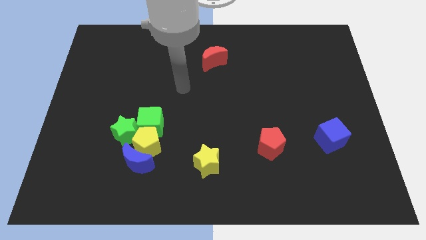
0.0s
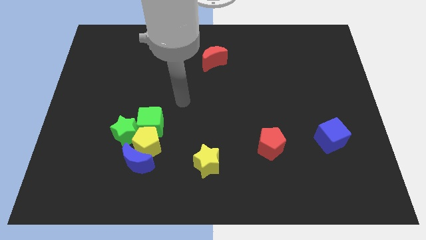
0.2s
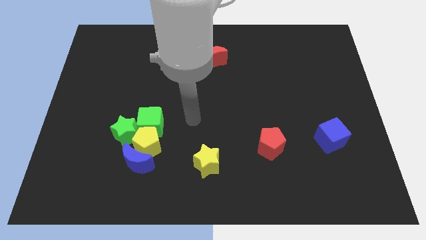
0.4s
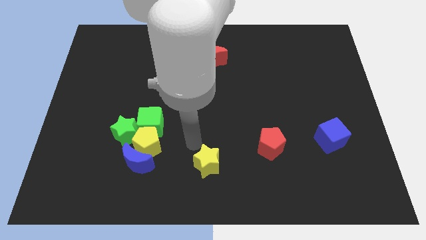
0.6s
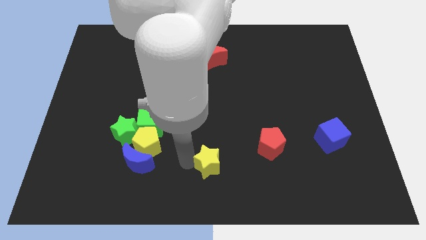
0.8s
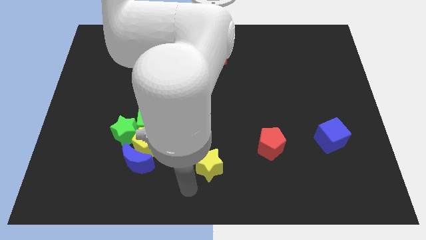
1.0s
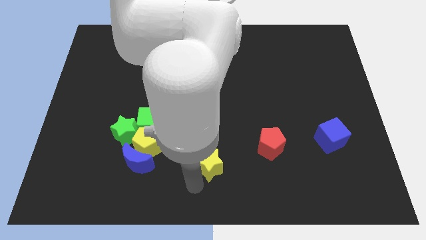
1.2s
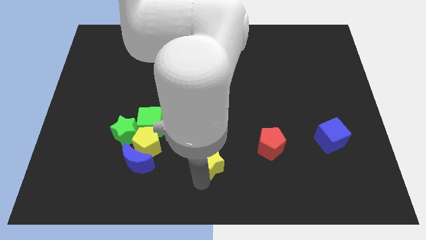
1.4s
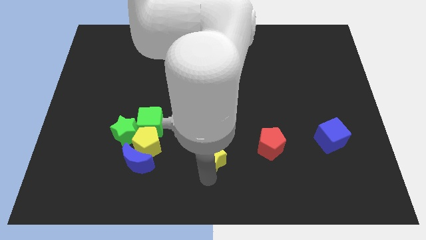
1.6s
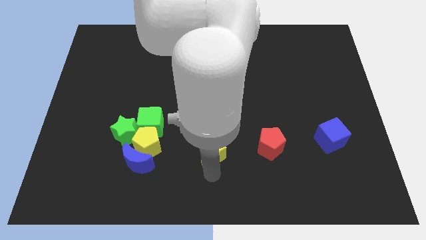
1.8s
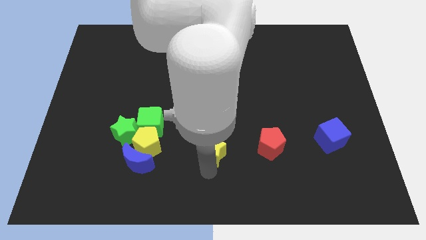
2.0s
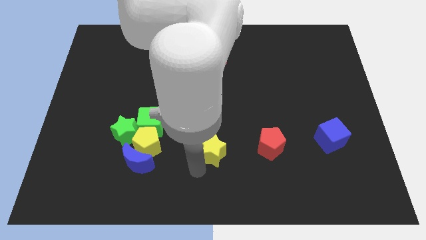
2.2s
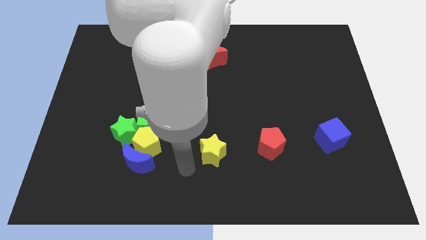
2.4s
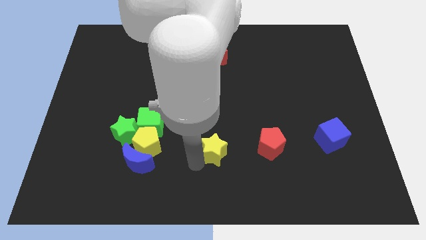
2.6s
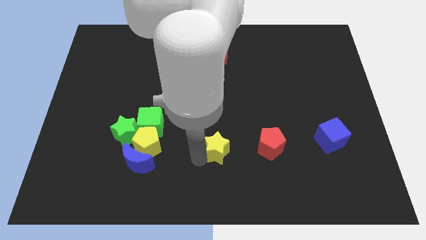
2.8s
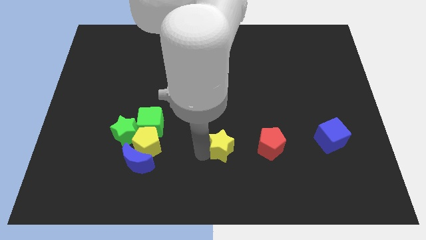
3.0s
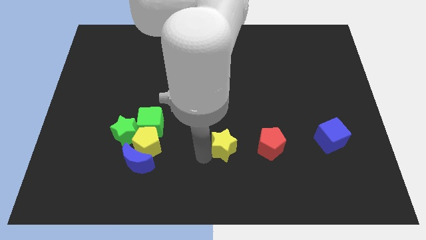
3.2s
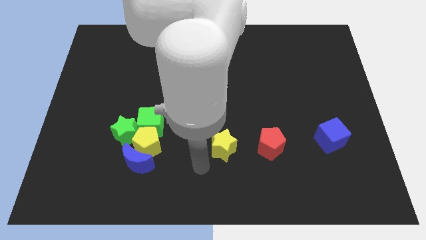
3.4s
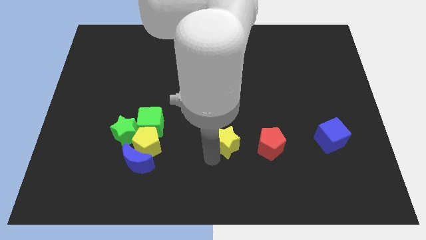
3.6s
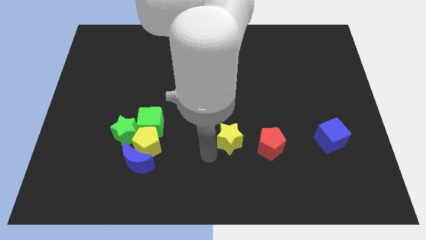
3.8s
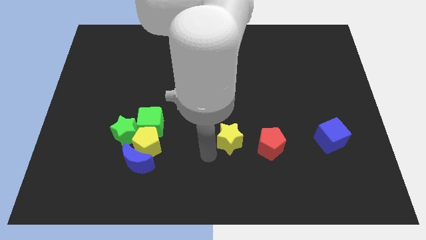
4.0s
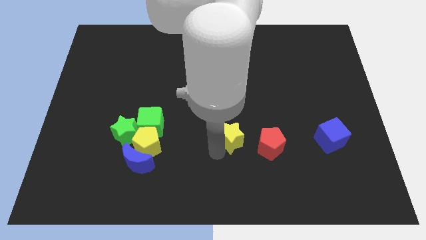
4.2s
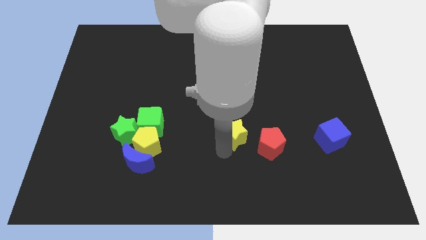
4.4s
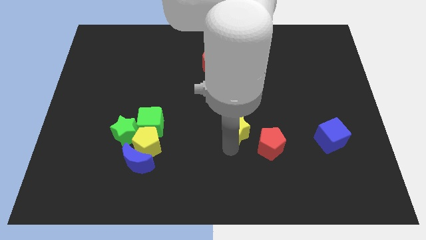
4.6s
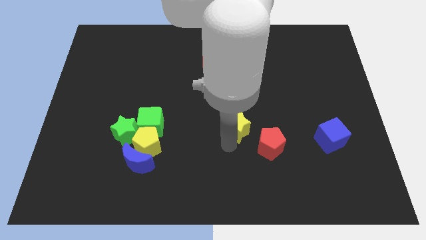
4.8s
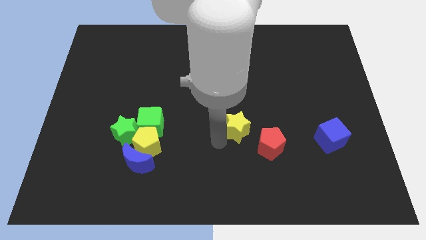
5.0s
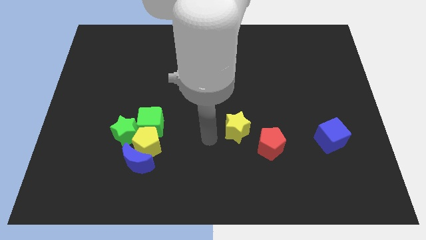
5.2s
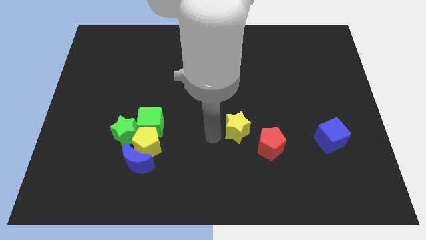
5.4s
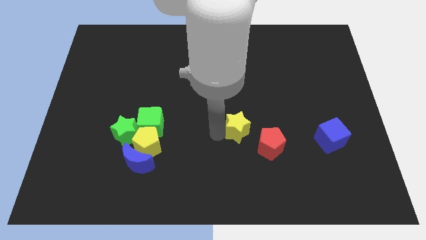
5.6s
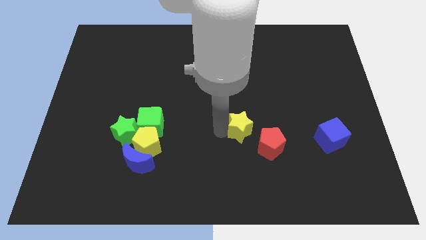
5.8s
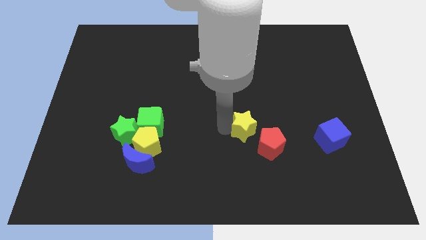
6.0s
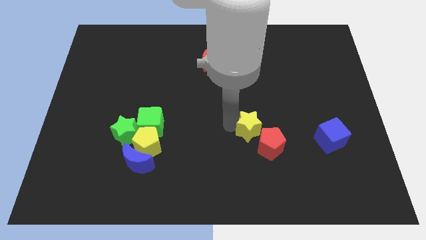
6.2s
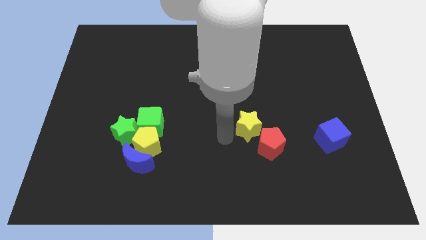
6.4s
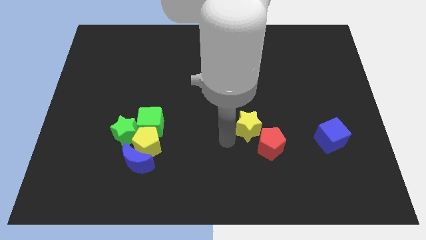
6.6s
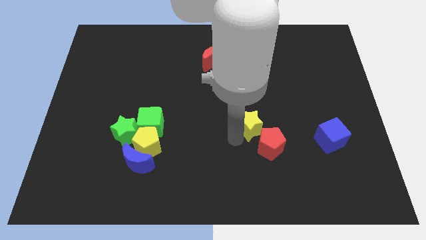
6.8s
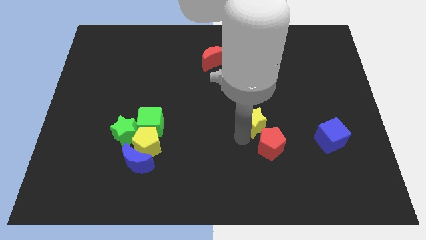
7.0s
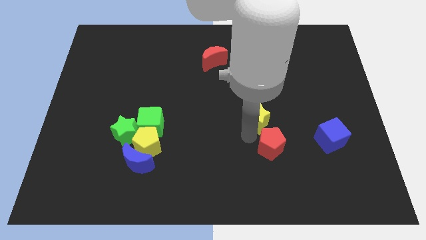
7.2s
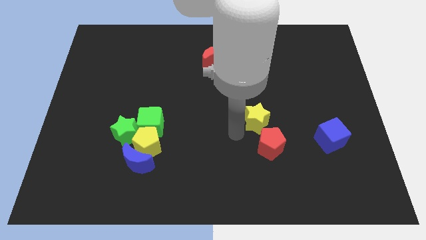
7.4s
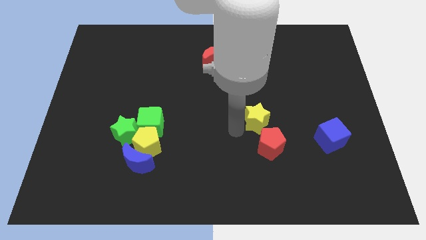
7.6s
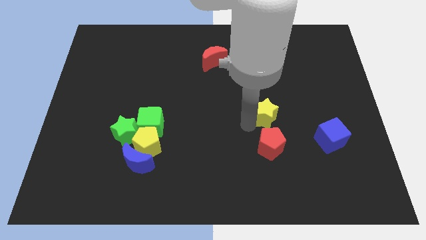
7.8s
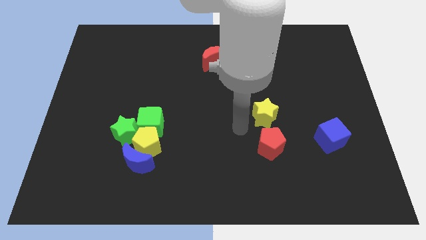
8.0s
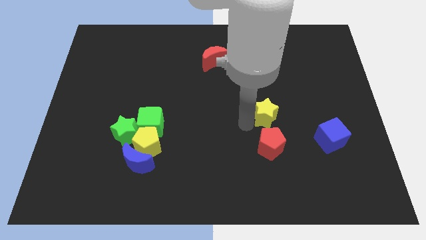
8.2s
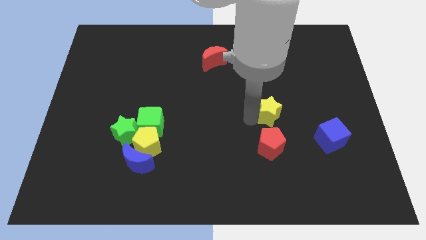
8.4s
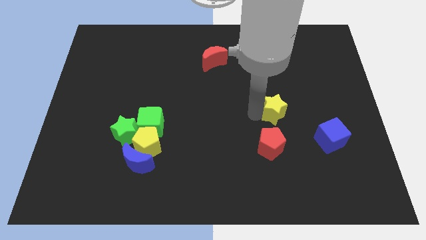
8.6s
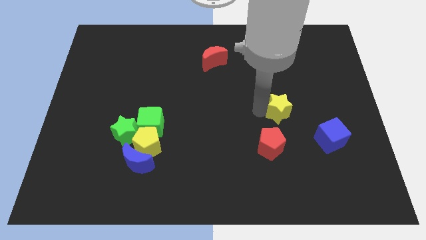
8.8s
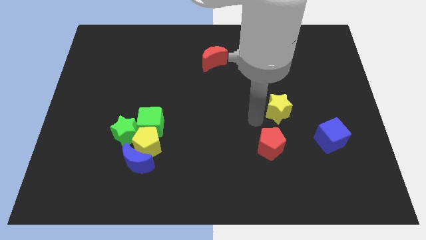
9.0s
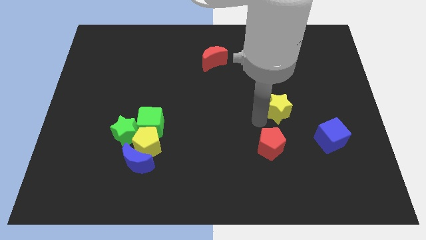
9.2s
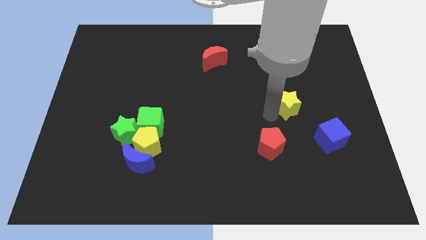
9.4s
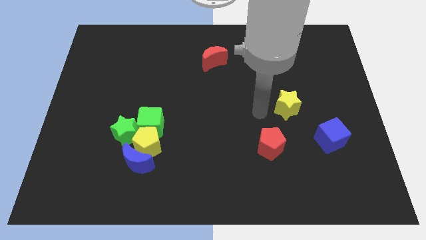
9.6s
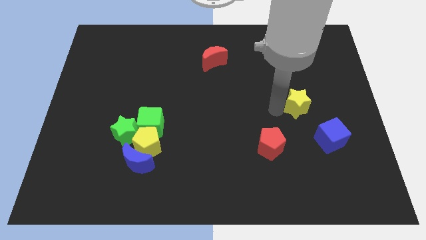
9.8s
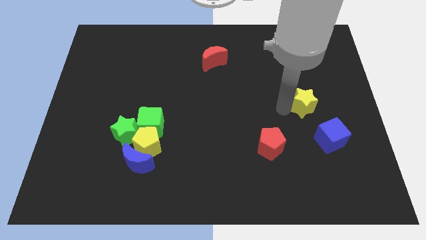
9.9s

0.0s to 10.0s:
put the yellow star to the top of the blue cube

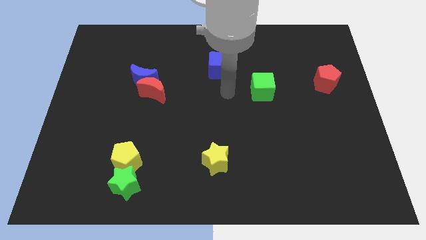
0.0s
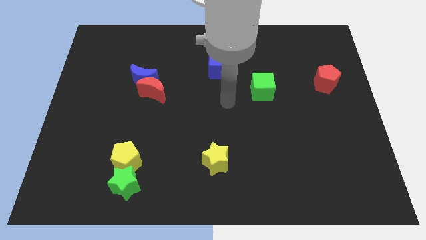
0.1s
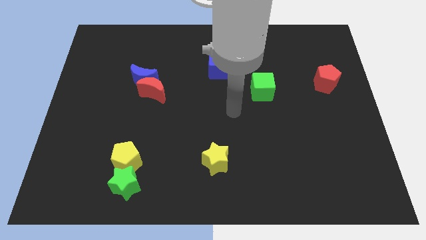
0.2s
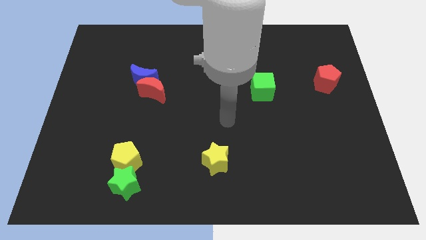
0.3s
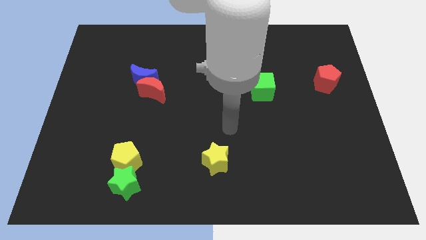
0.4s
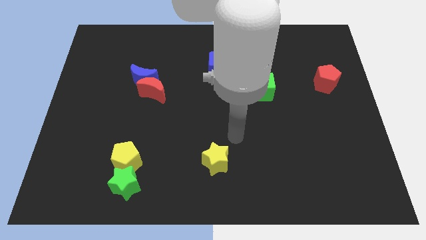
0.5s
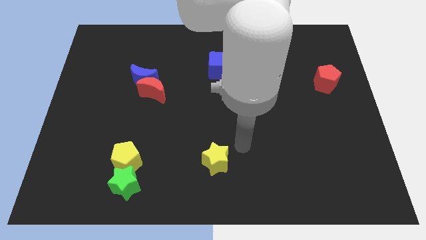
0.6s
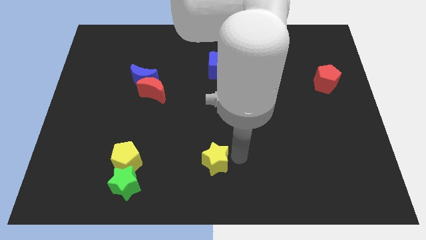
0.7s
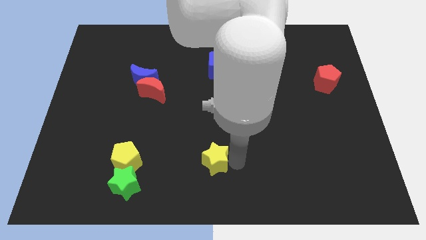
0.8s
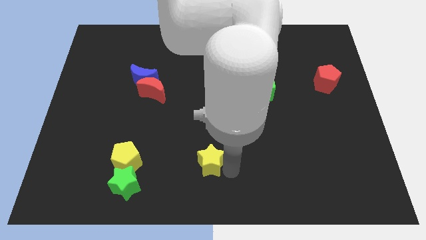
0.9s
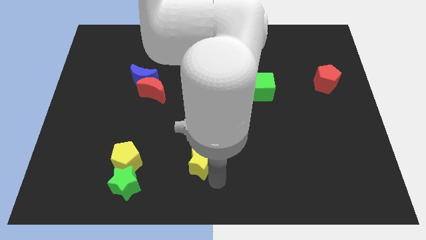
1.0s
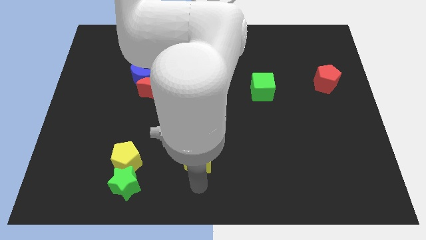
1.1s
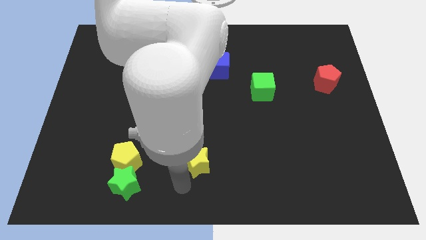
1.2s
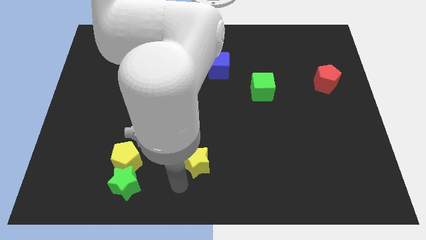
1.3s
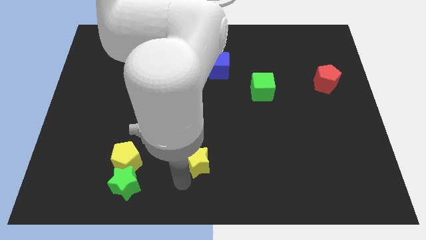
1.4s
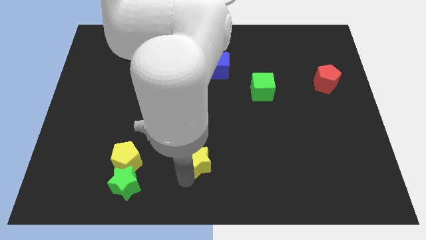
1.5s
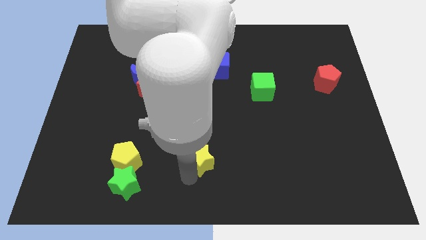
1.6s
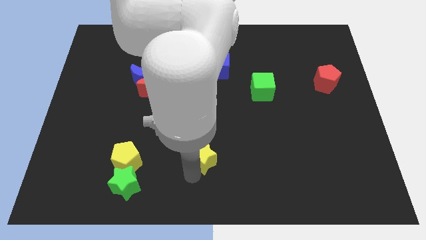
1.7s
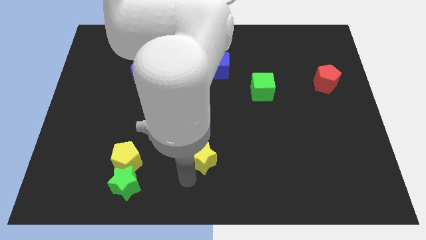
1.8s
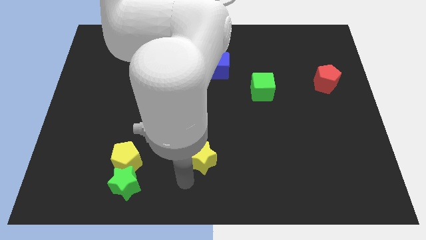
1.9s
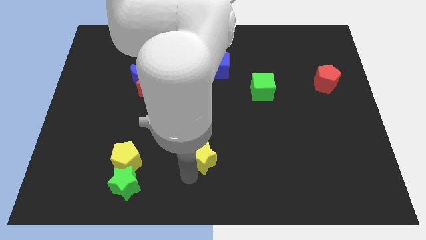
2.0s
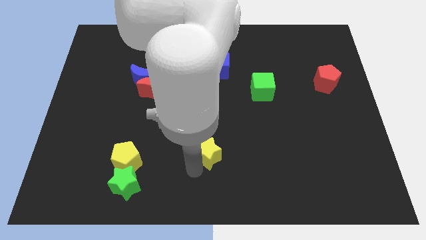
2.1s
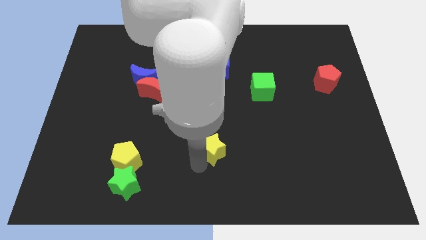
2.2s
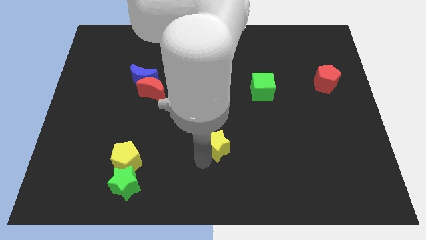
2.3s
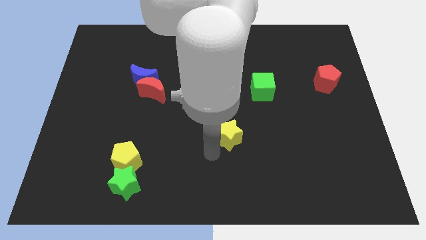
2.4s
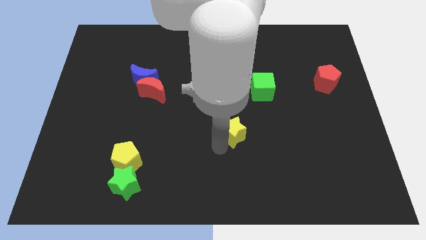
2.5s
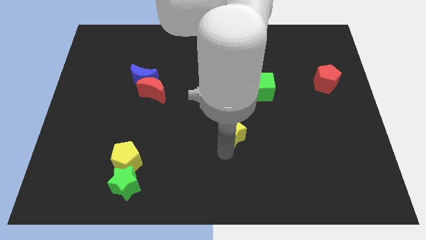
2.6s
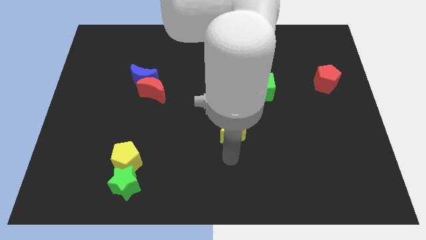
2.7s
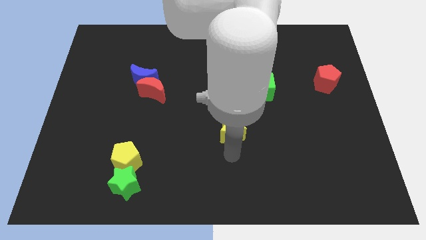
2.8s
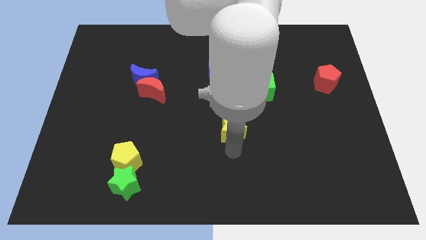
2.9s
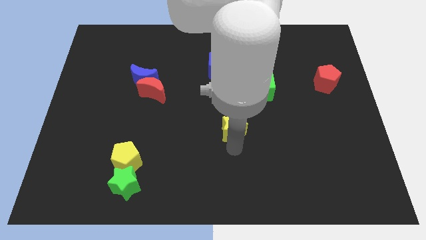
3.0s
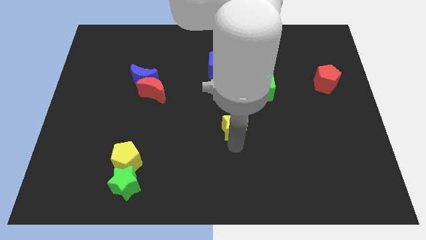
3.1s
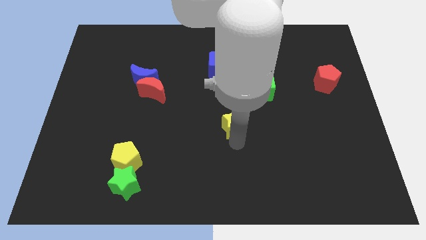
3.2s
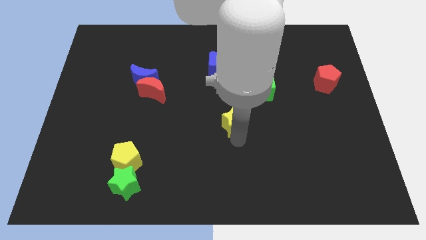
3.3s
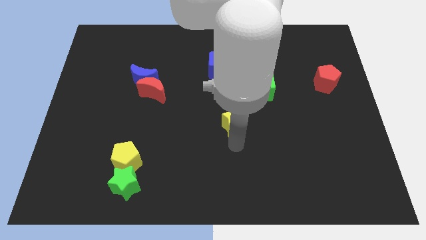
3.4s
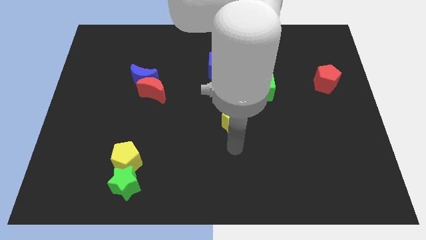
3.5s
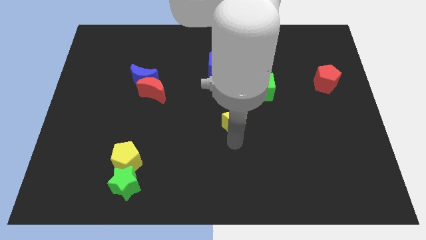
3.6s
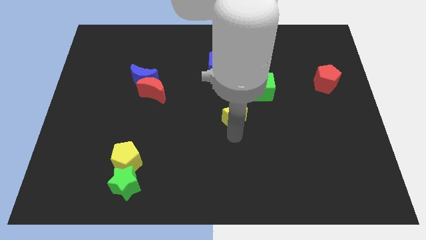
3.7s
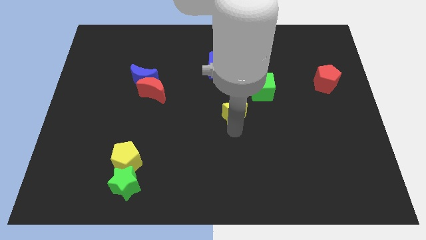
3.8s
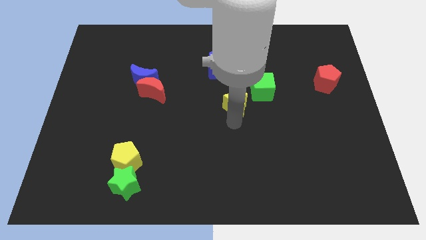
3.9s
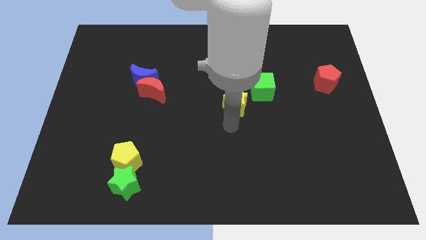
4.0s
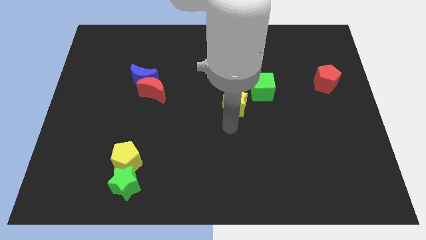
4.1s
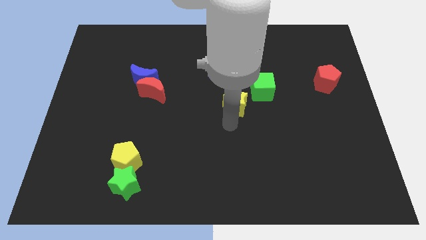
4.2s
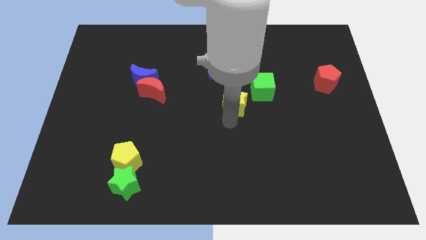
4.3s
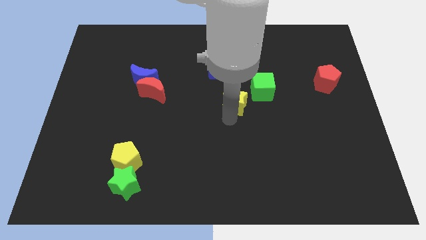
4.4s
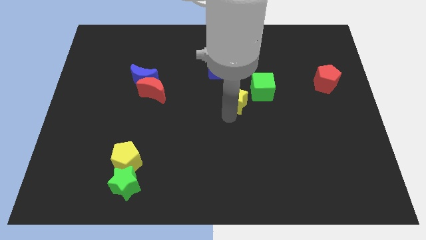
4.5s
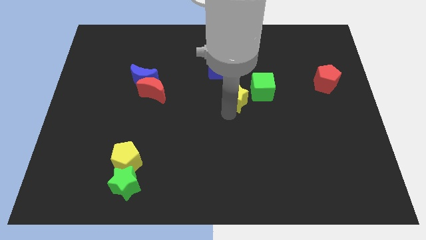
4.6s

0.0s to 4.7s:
push the yellow star to the bottom right side of the blue cube
